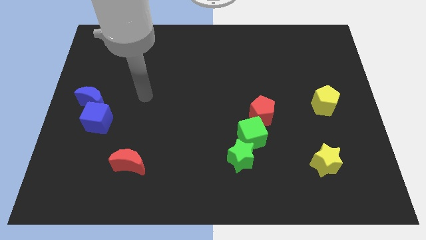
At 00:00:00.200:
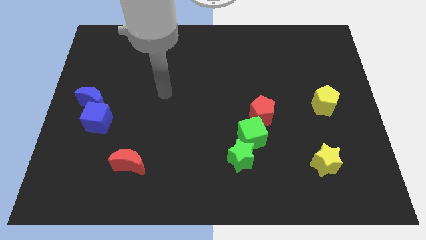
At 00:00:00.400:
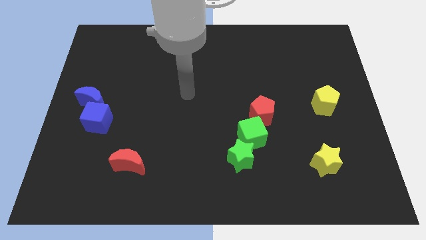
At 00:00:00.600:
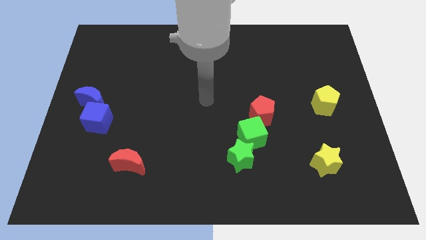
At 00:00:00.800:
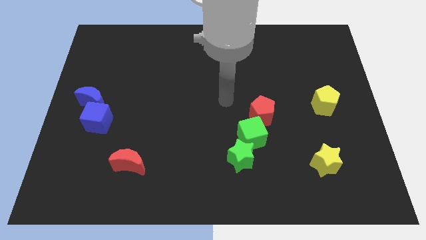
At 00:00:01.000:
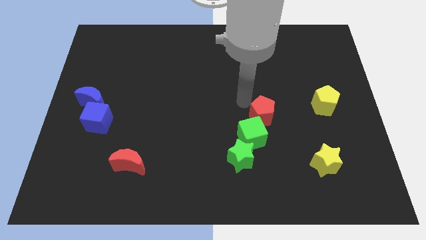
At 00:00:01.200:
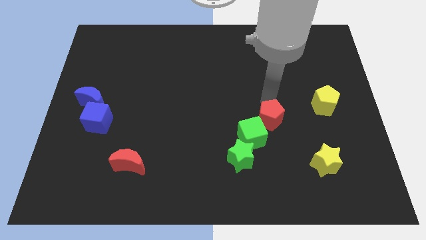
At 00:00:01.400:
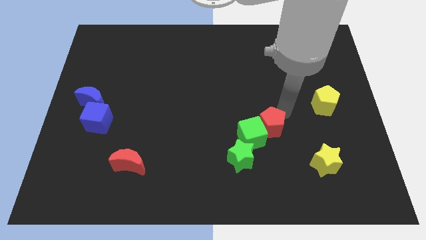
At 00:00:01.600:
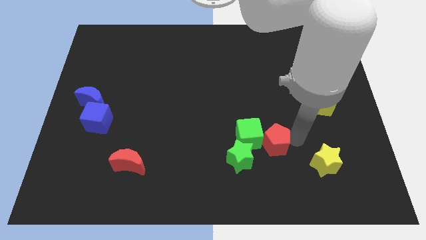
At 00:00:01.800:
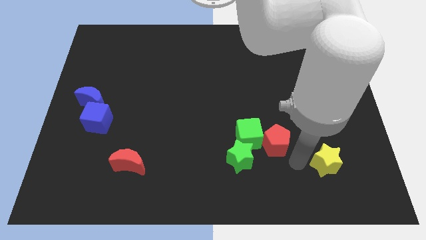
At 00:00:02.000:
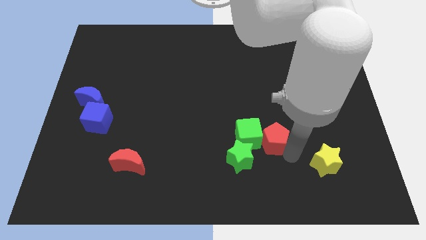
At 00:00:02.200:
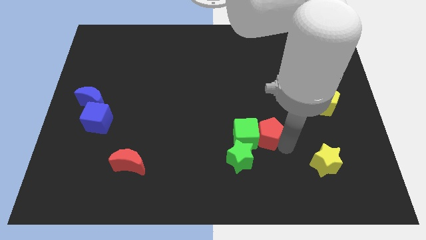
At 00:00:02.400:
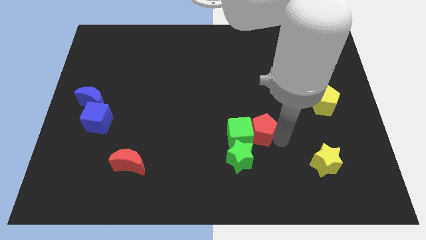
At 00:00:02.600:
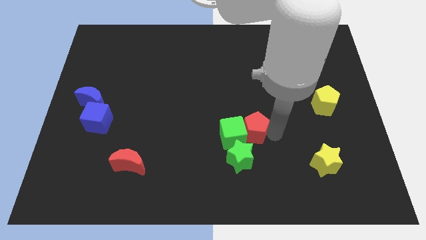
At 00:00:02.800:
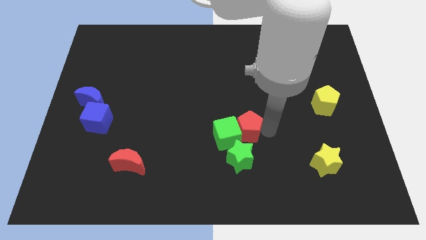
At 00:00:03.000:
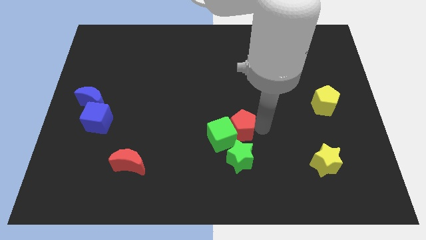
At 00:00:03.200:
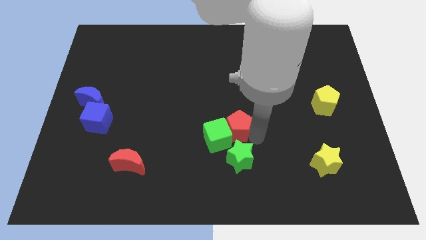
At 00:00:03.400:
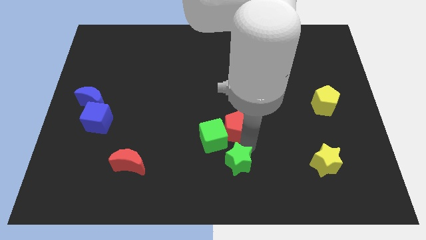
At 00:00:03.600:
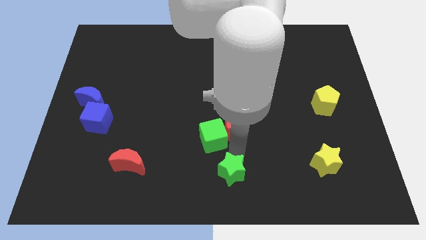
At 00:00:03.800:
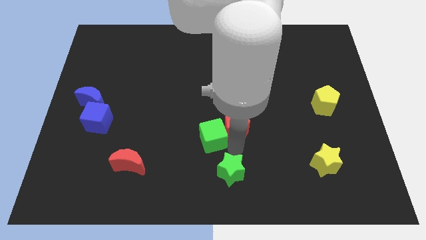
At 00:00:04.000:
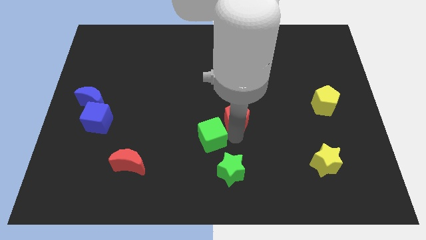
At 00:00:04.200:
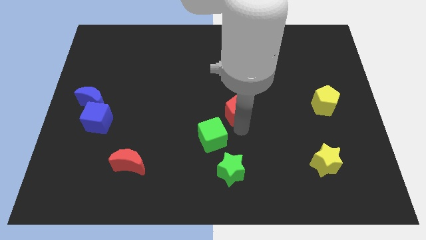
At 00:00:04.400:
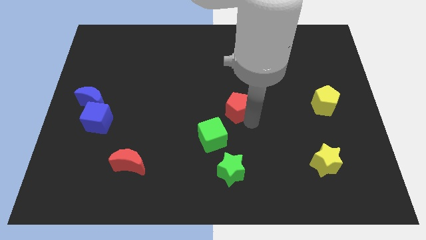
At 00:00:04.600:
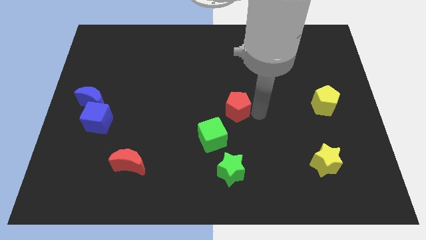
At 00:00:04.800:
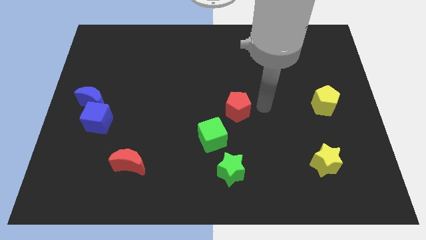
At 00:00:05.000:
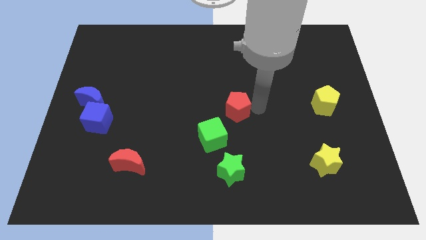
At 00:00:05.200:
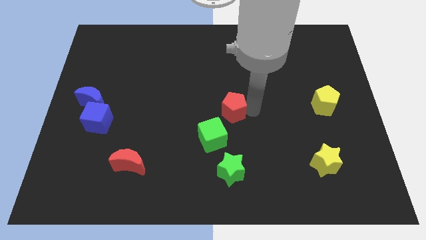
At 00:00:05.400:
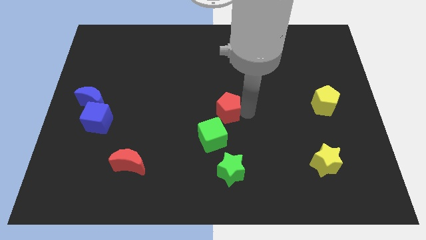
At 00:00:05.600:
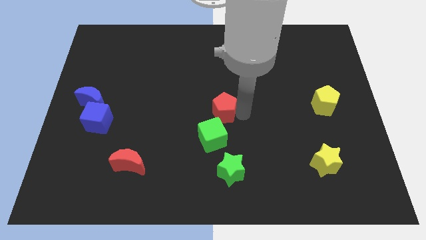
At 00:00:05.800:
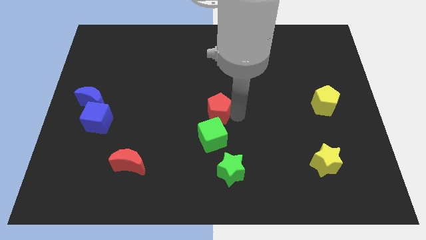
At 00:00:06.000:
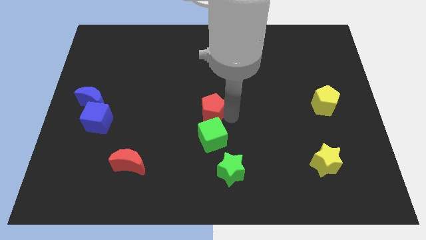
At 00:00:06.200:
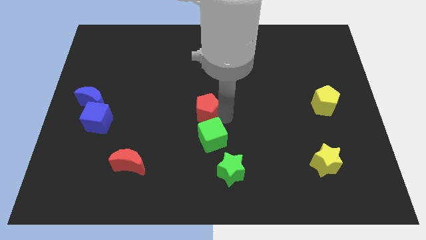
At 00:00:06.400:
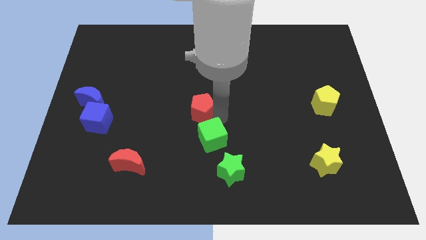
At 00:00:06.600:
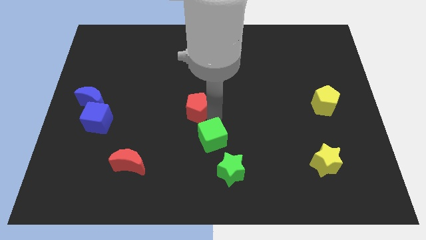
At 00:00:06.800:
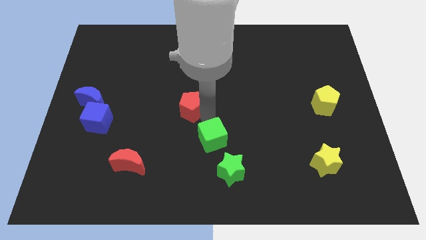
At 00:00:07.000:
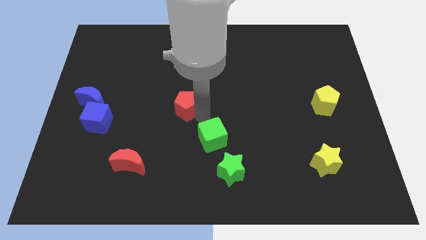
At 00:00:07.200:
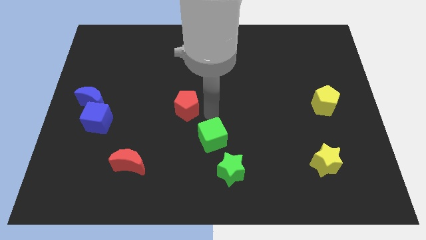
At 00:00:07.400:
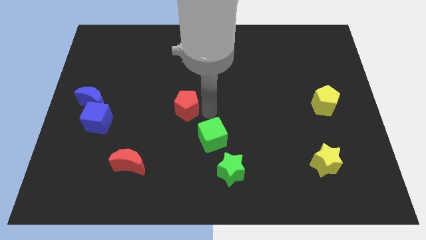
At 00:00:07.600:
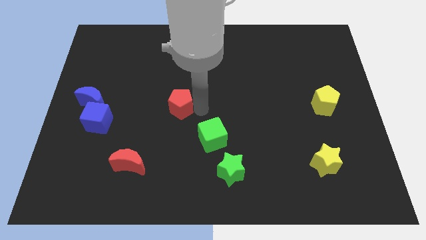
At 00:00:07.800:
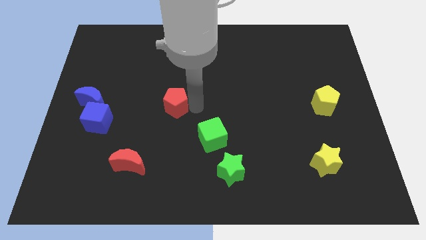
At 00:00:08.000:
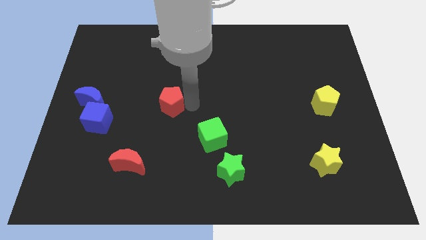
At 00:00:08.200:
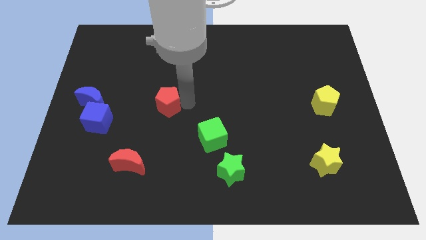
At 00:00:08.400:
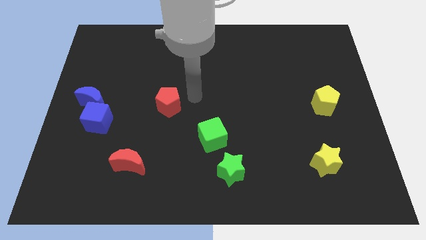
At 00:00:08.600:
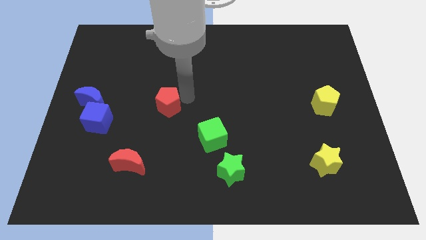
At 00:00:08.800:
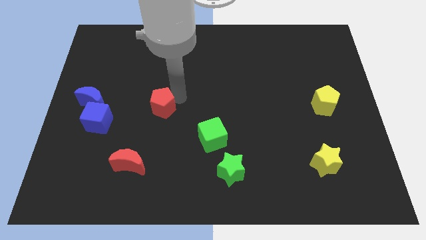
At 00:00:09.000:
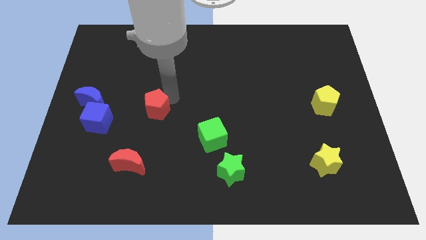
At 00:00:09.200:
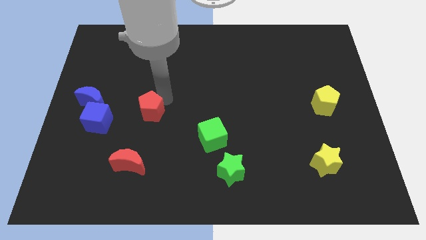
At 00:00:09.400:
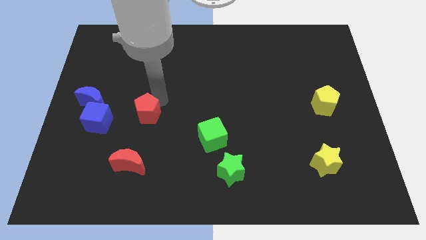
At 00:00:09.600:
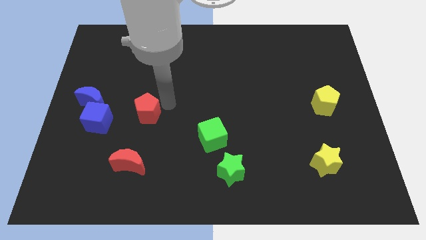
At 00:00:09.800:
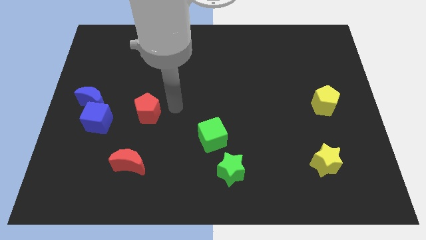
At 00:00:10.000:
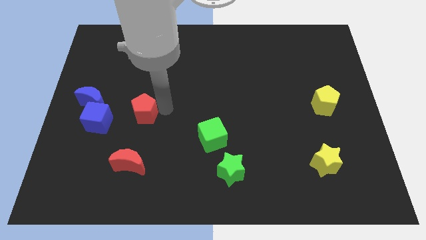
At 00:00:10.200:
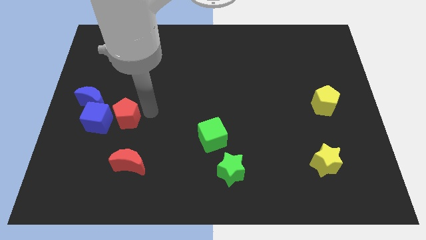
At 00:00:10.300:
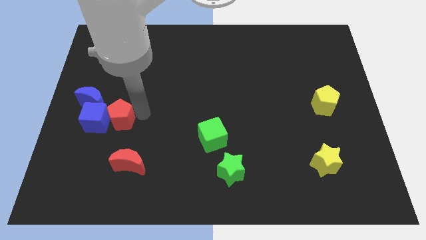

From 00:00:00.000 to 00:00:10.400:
push the red pentagon next to the blue cube
